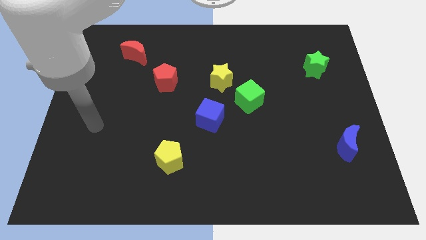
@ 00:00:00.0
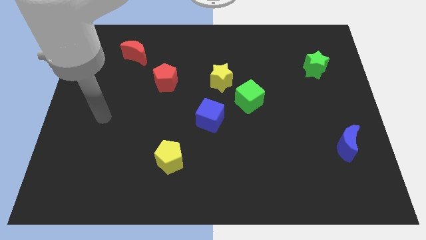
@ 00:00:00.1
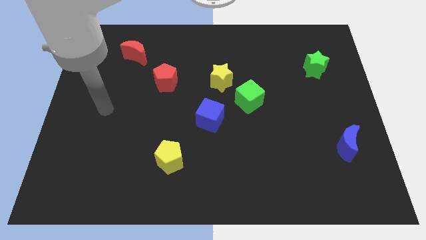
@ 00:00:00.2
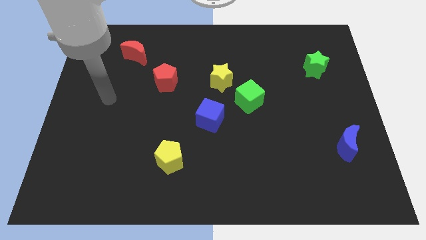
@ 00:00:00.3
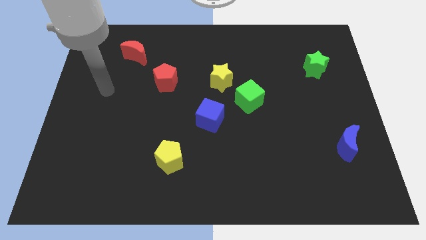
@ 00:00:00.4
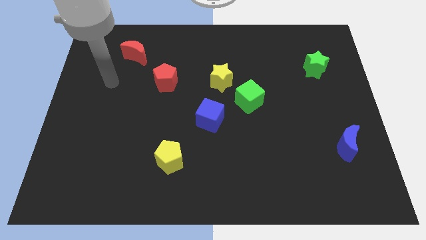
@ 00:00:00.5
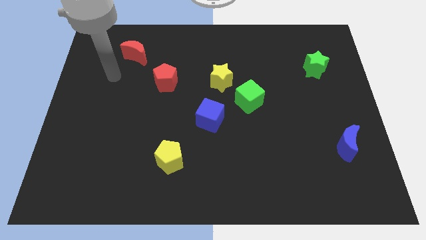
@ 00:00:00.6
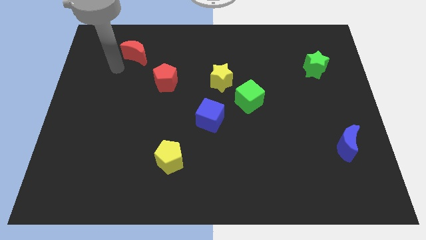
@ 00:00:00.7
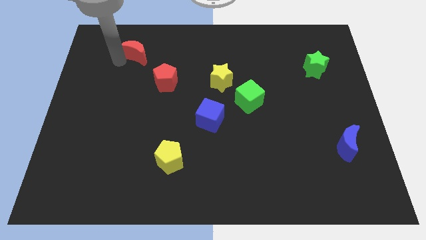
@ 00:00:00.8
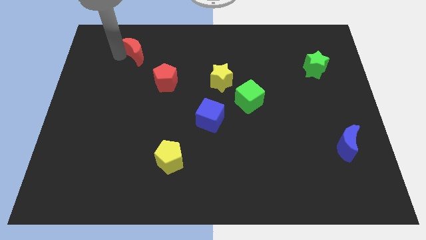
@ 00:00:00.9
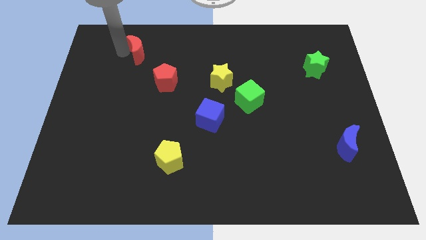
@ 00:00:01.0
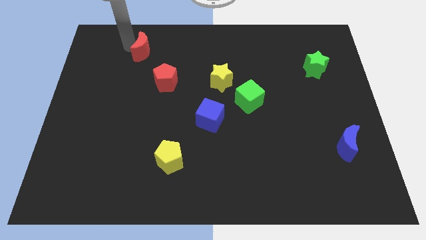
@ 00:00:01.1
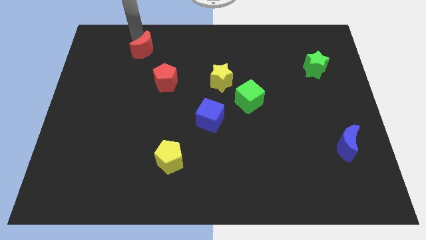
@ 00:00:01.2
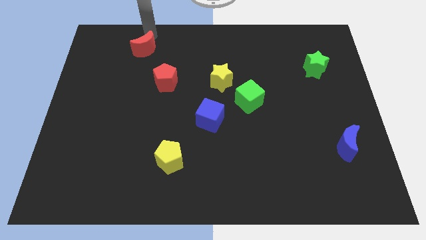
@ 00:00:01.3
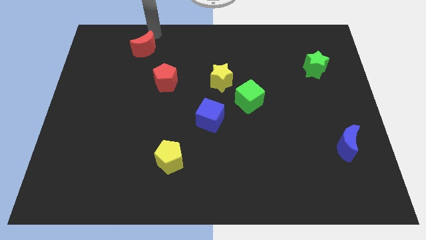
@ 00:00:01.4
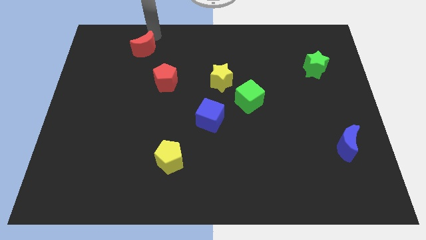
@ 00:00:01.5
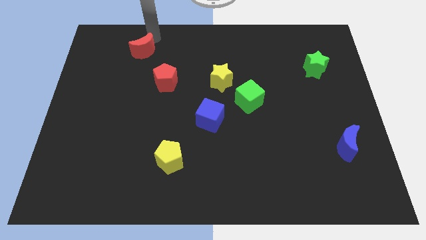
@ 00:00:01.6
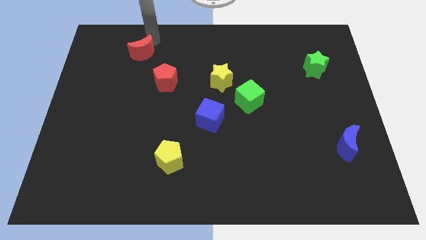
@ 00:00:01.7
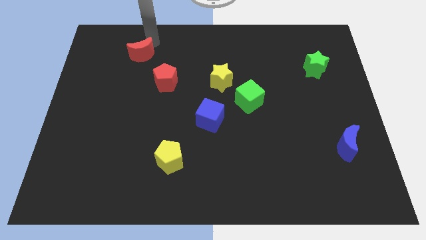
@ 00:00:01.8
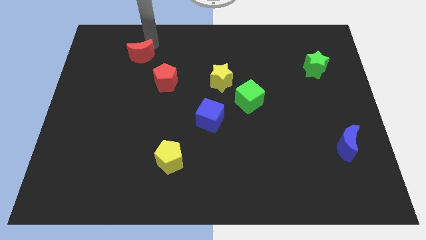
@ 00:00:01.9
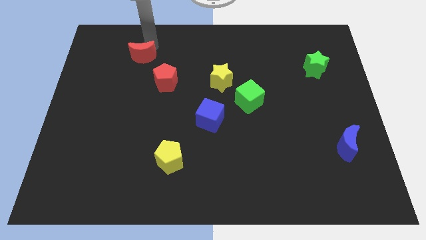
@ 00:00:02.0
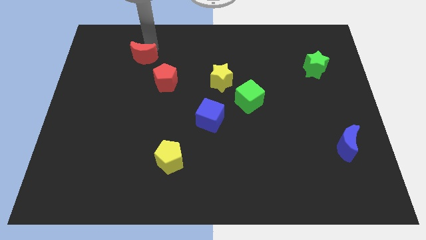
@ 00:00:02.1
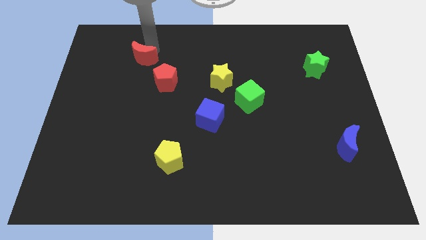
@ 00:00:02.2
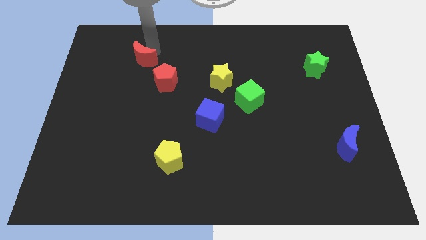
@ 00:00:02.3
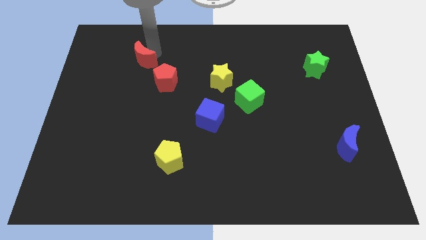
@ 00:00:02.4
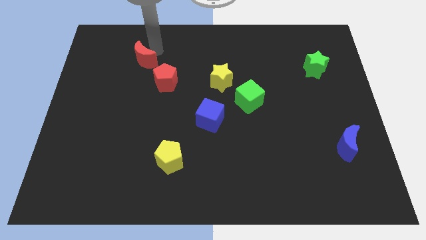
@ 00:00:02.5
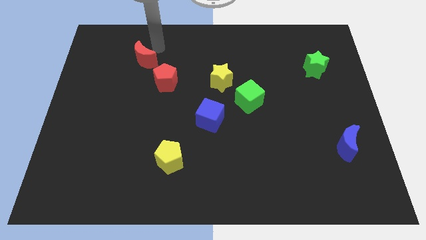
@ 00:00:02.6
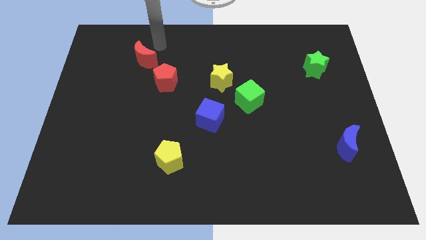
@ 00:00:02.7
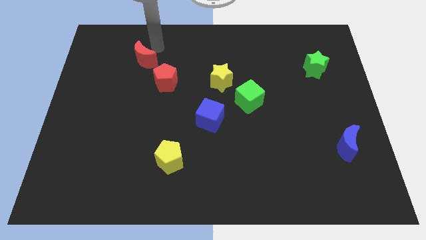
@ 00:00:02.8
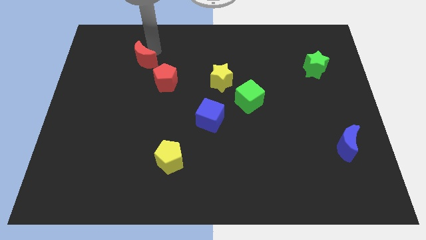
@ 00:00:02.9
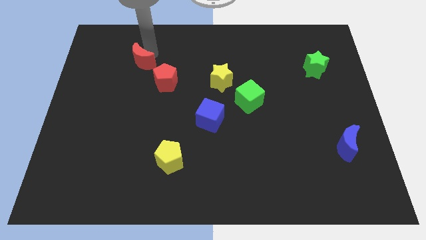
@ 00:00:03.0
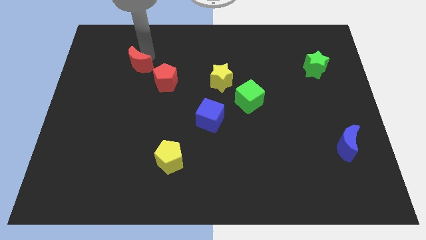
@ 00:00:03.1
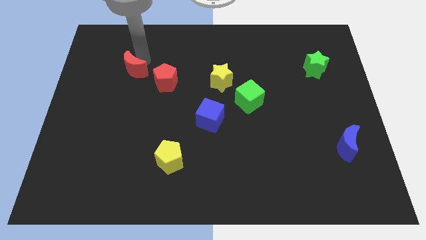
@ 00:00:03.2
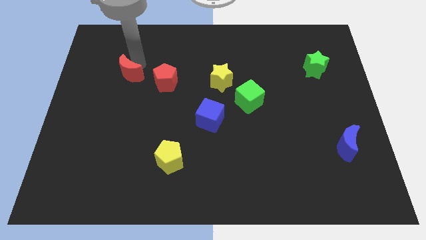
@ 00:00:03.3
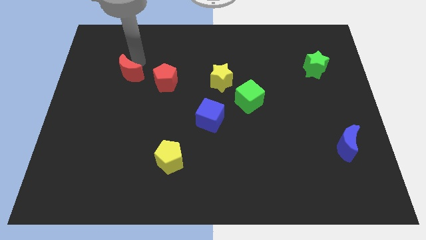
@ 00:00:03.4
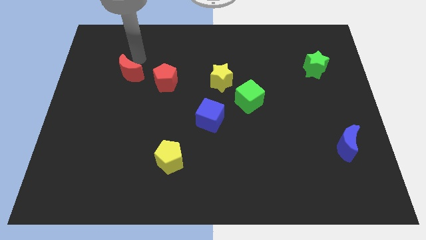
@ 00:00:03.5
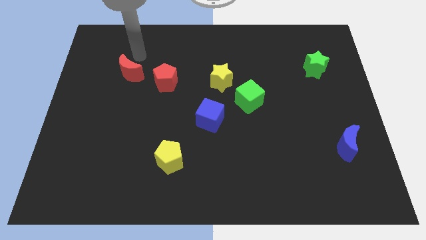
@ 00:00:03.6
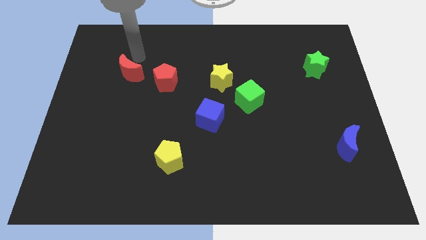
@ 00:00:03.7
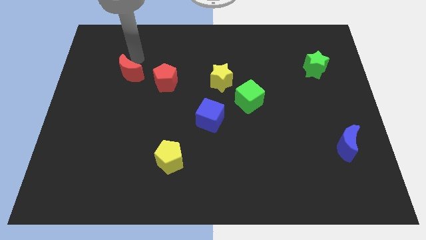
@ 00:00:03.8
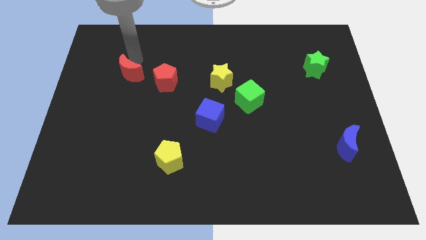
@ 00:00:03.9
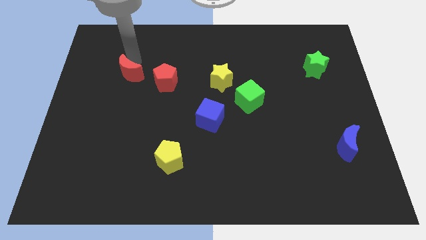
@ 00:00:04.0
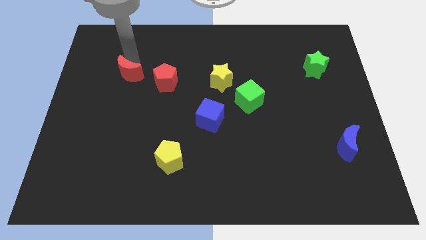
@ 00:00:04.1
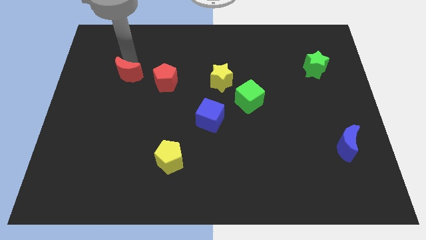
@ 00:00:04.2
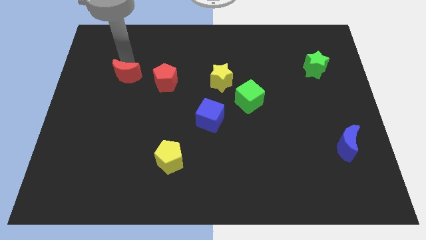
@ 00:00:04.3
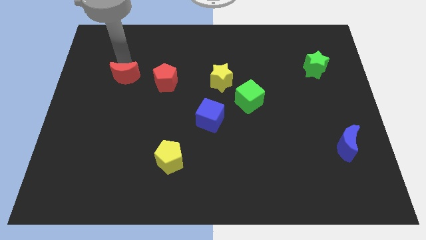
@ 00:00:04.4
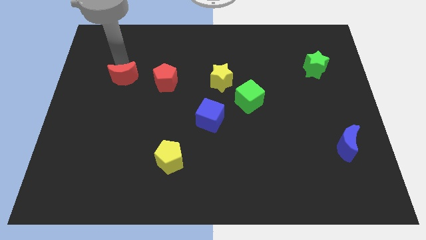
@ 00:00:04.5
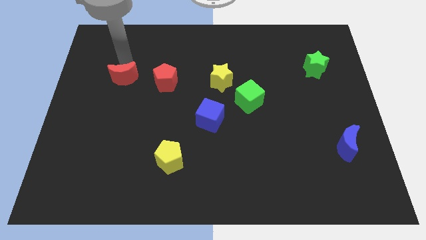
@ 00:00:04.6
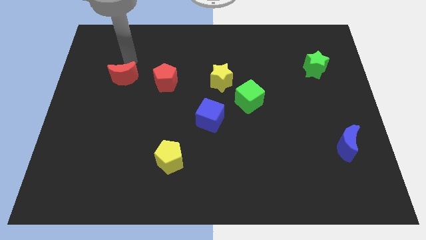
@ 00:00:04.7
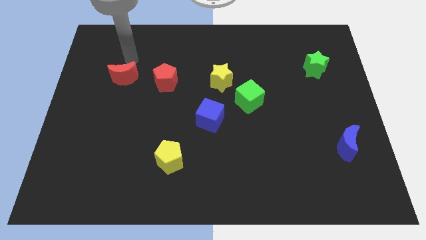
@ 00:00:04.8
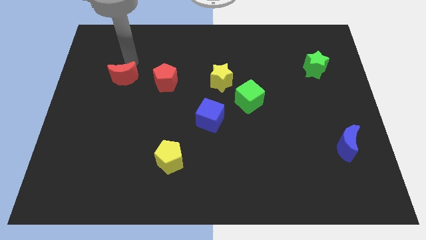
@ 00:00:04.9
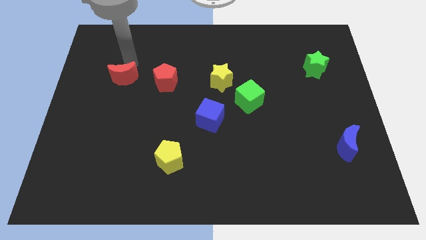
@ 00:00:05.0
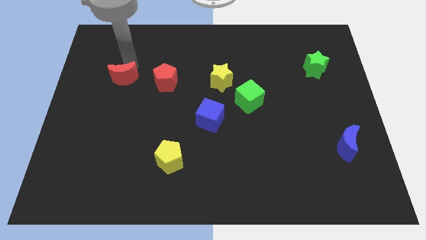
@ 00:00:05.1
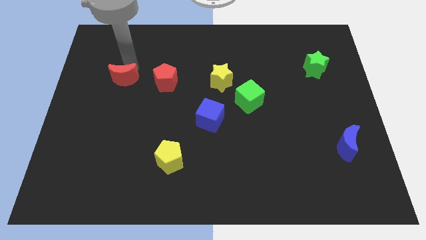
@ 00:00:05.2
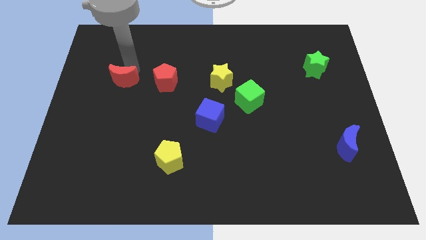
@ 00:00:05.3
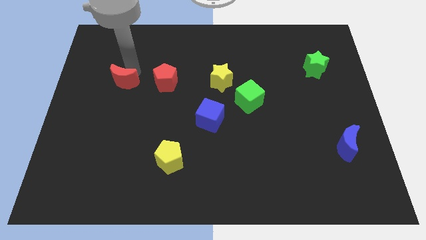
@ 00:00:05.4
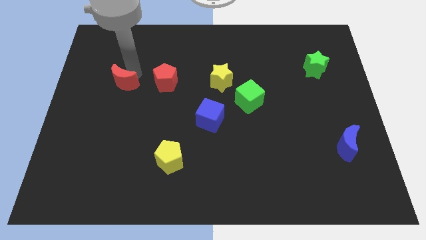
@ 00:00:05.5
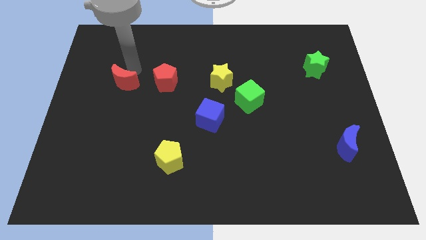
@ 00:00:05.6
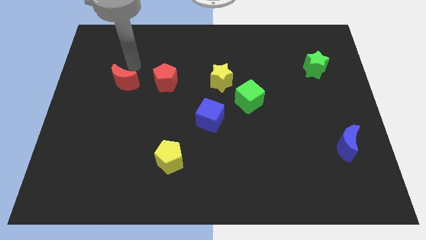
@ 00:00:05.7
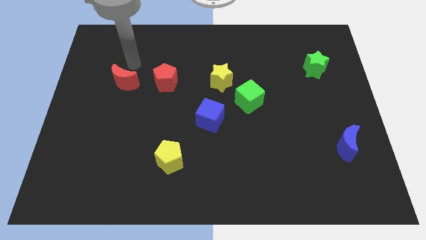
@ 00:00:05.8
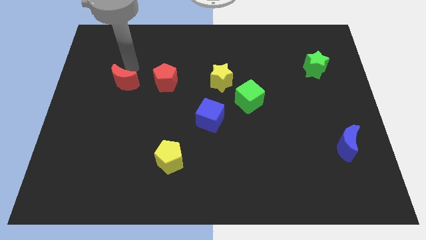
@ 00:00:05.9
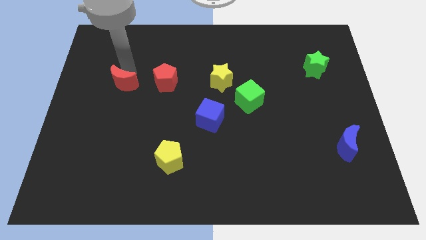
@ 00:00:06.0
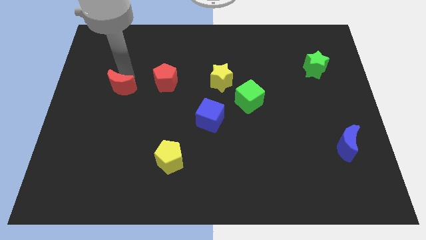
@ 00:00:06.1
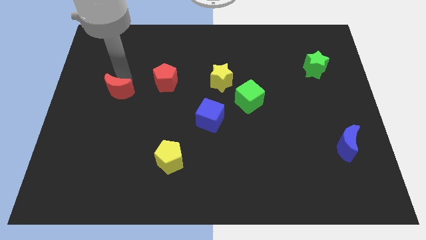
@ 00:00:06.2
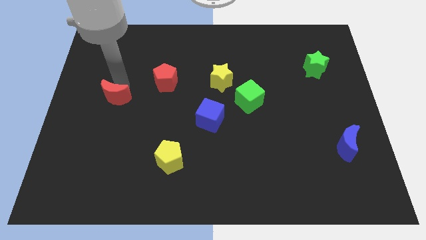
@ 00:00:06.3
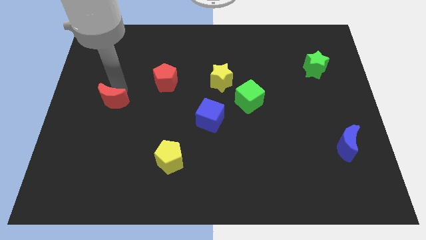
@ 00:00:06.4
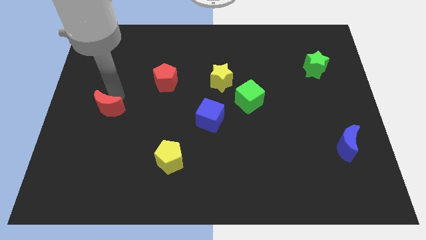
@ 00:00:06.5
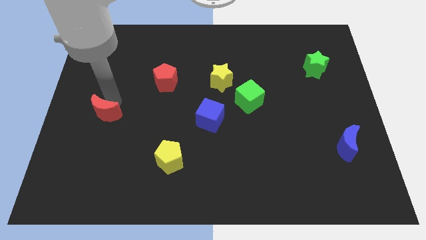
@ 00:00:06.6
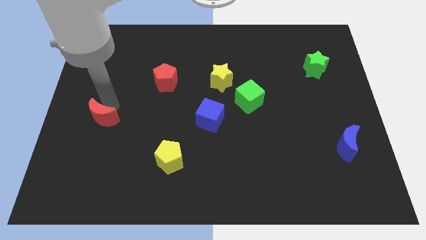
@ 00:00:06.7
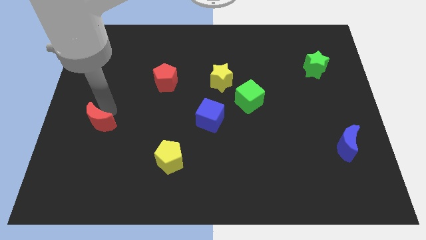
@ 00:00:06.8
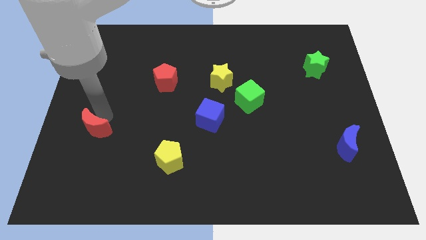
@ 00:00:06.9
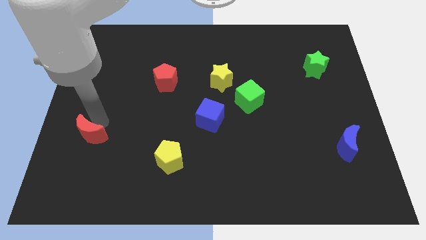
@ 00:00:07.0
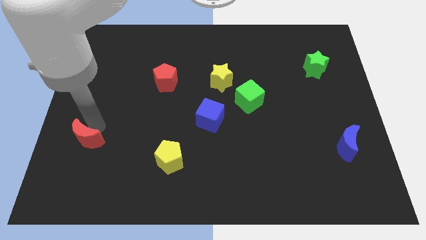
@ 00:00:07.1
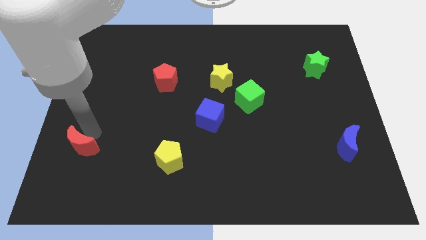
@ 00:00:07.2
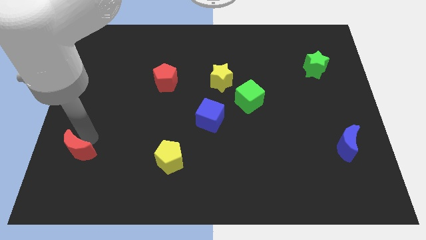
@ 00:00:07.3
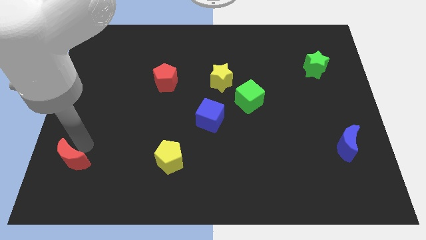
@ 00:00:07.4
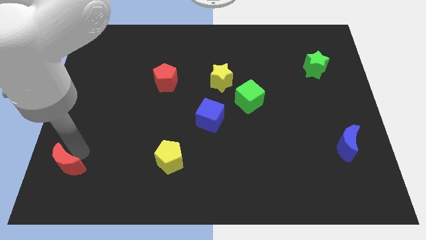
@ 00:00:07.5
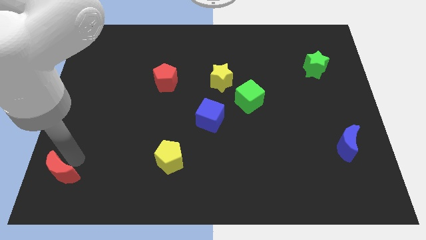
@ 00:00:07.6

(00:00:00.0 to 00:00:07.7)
push the red moon to the bottom left
